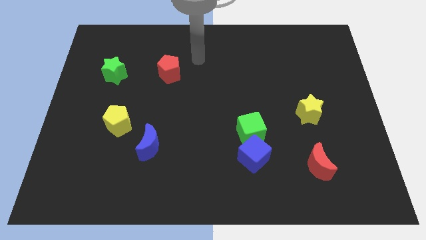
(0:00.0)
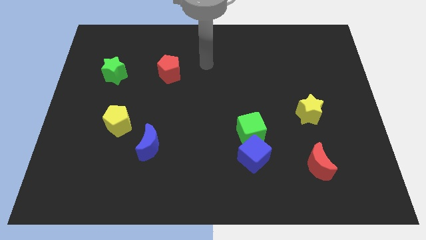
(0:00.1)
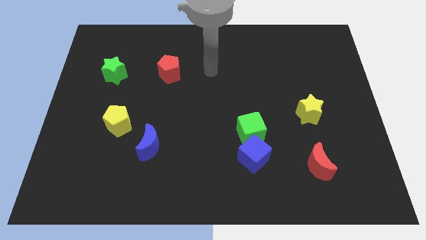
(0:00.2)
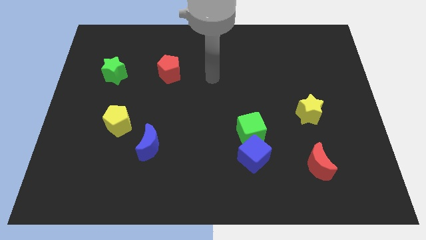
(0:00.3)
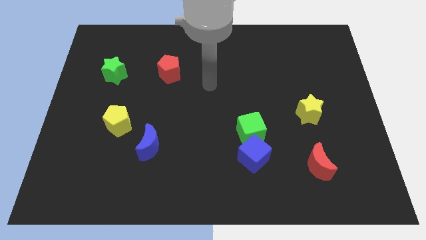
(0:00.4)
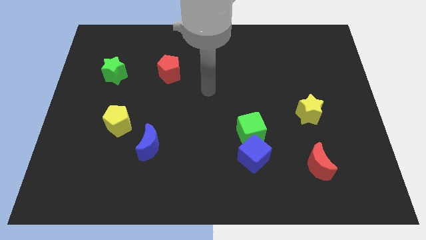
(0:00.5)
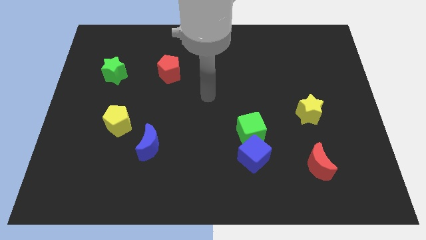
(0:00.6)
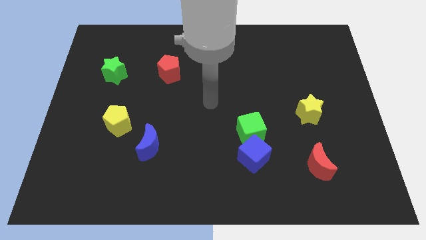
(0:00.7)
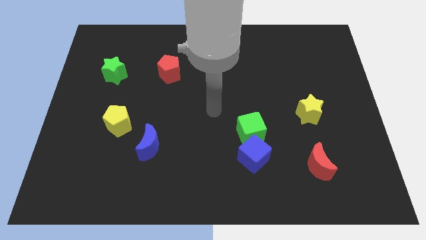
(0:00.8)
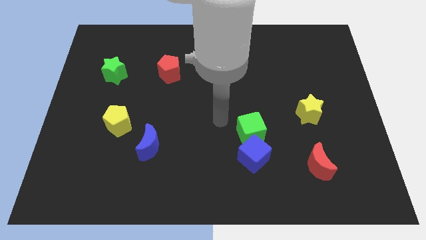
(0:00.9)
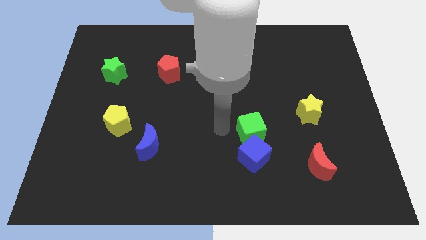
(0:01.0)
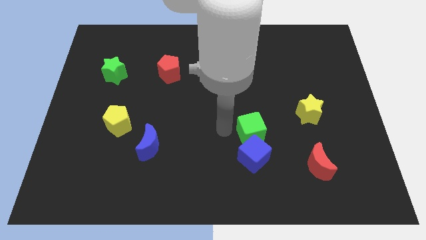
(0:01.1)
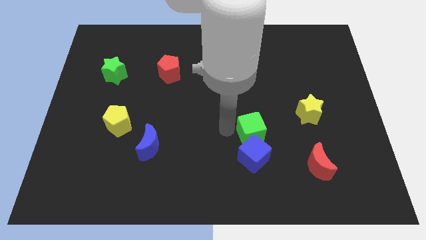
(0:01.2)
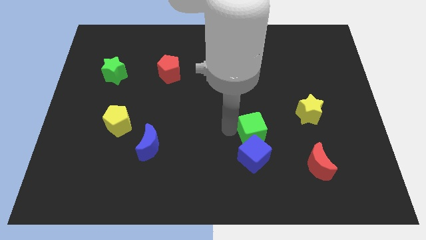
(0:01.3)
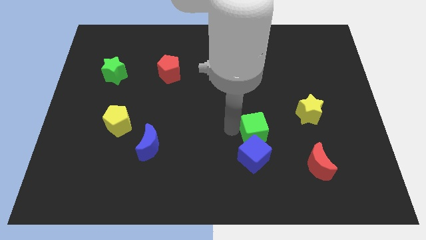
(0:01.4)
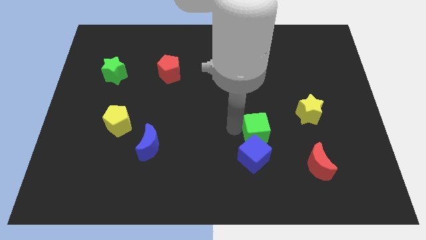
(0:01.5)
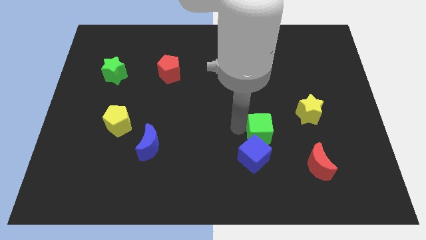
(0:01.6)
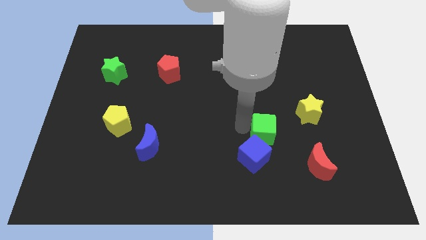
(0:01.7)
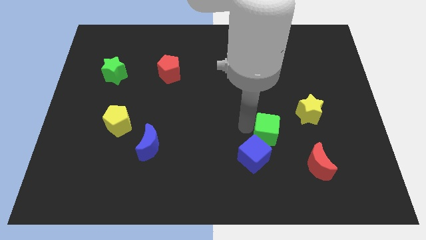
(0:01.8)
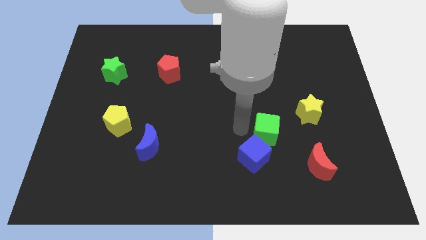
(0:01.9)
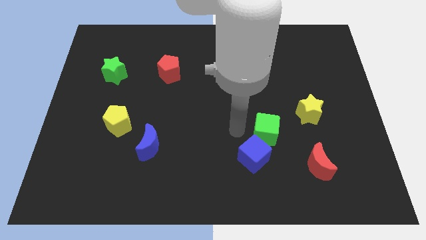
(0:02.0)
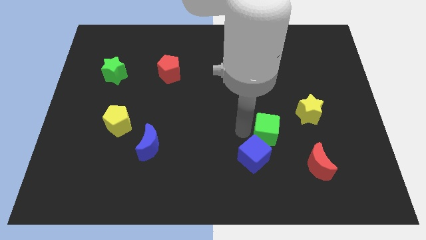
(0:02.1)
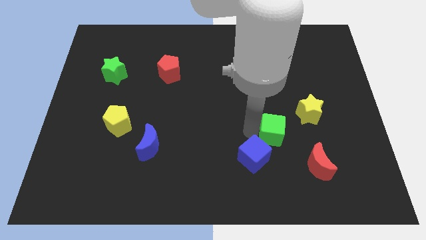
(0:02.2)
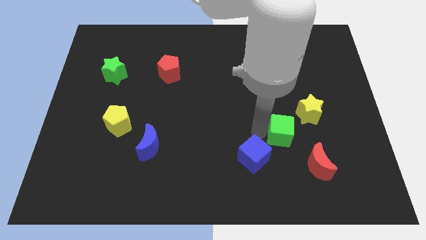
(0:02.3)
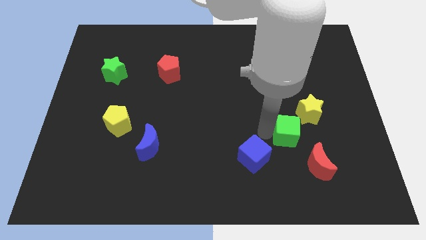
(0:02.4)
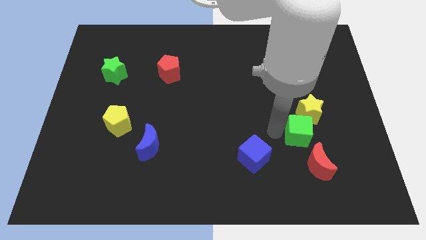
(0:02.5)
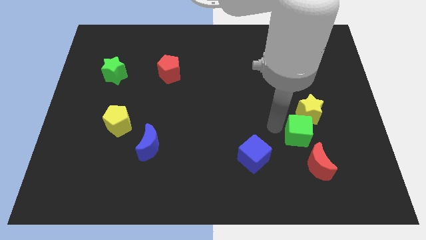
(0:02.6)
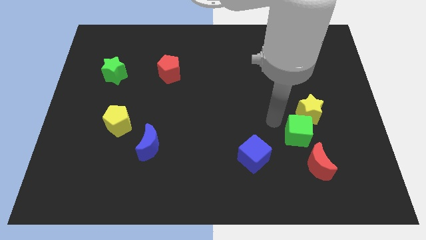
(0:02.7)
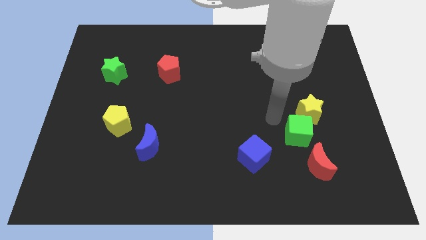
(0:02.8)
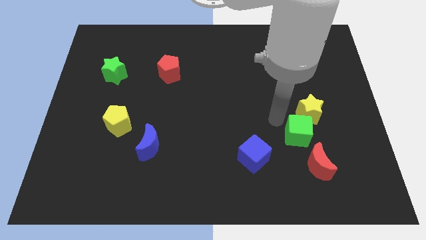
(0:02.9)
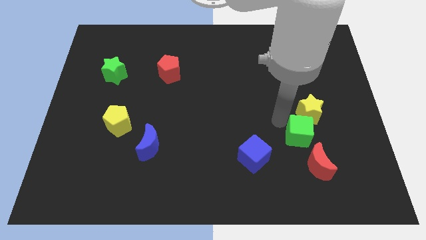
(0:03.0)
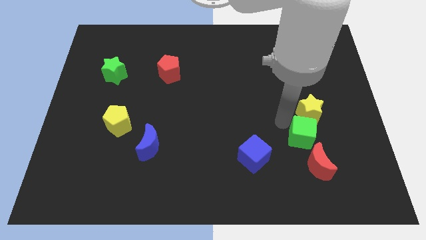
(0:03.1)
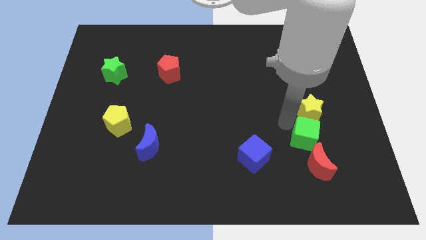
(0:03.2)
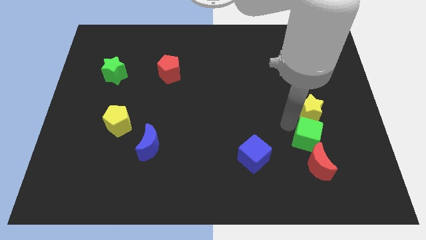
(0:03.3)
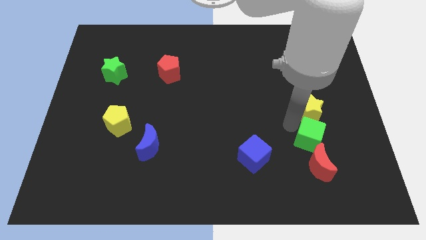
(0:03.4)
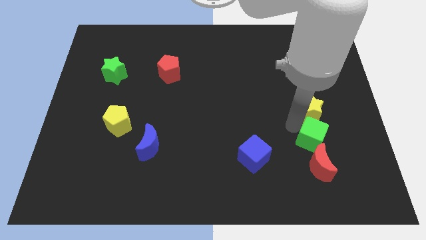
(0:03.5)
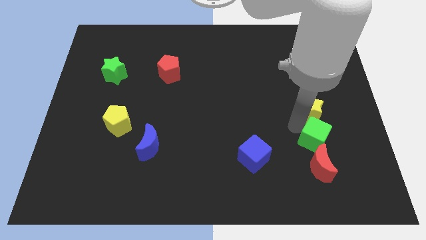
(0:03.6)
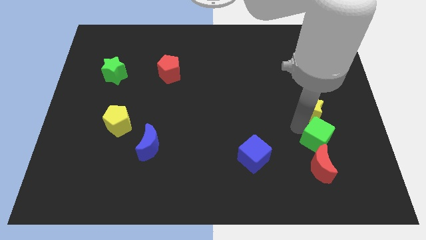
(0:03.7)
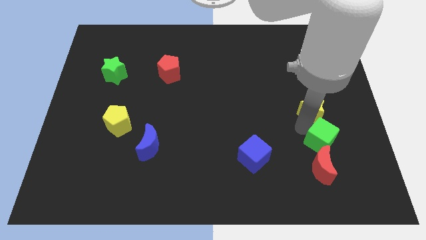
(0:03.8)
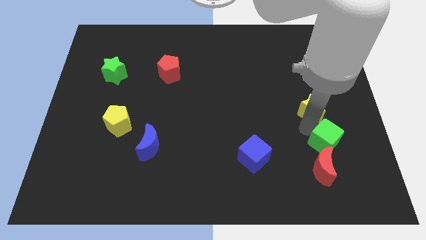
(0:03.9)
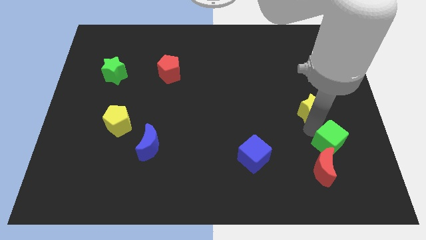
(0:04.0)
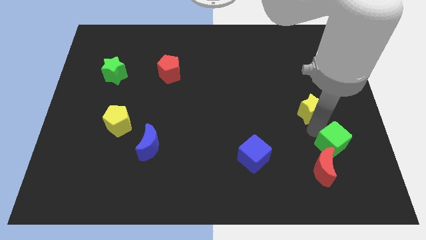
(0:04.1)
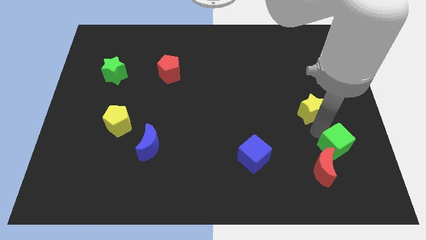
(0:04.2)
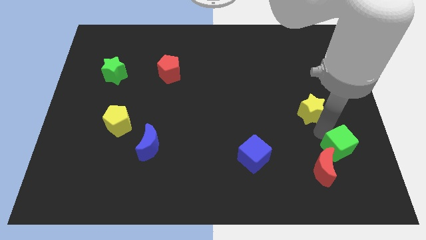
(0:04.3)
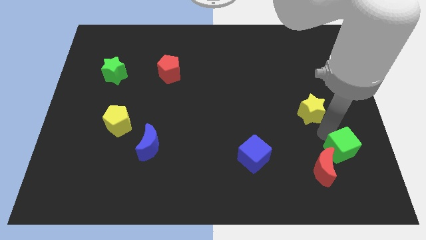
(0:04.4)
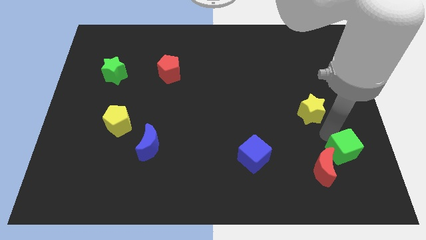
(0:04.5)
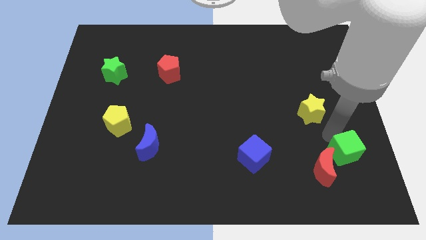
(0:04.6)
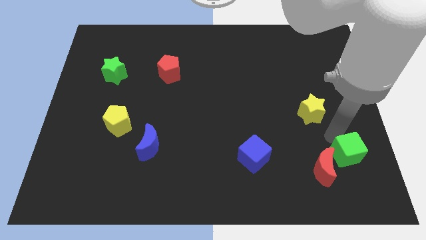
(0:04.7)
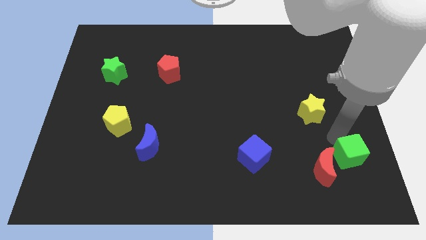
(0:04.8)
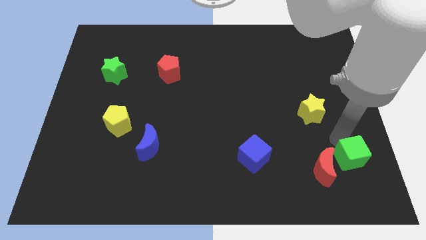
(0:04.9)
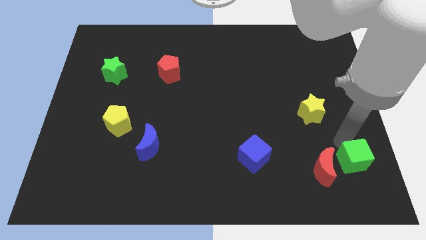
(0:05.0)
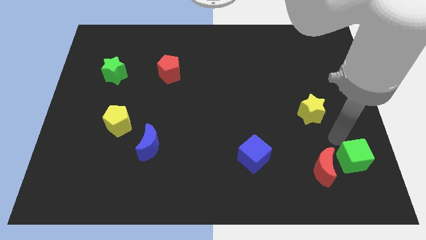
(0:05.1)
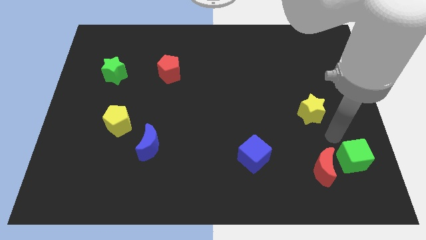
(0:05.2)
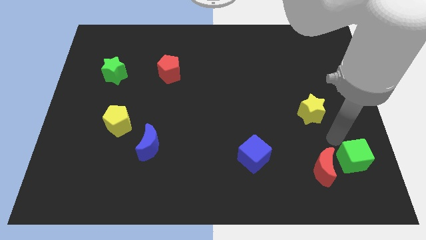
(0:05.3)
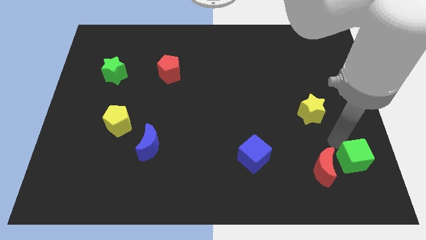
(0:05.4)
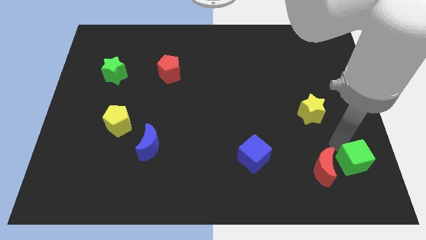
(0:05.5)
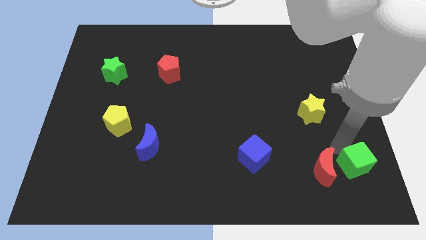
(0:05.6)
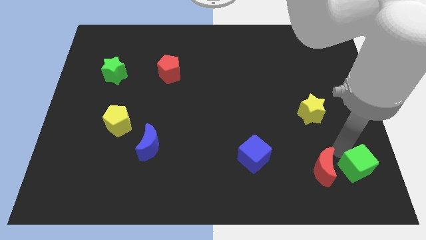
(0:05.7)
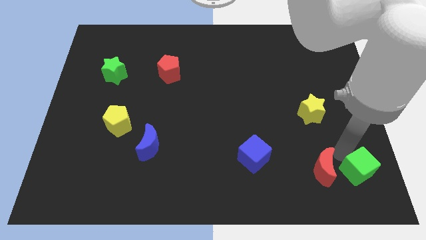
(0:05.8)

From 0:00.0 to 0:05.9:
push the green cube to the bottom right corner
